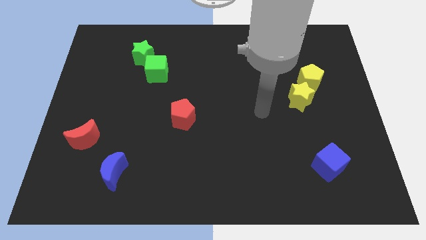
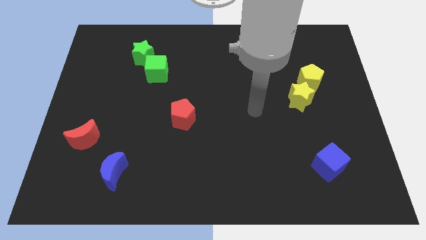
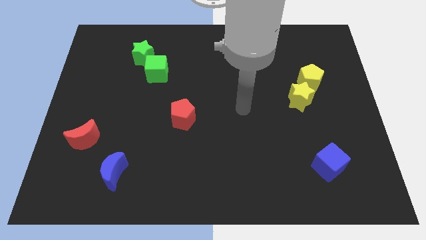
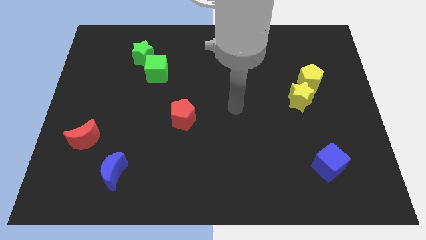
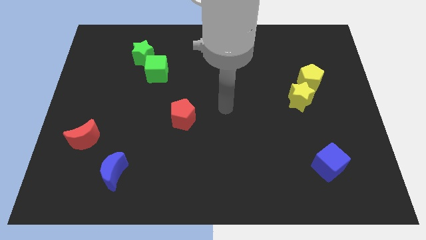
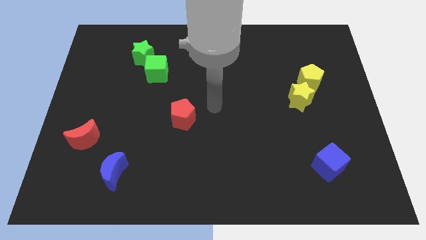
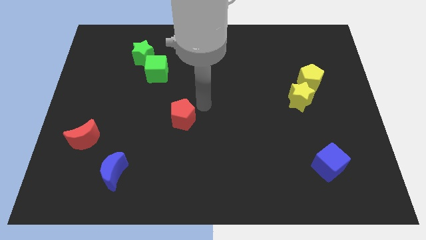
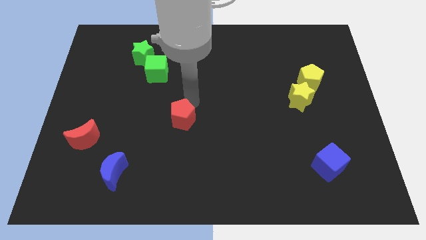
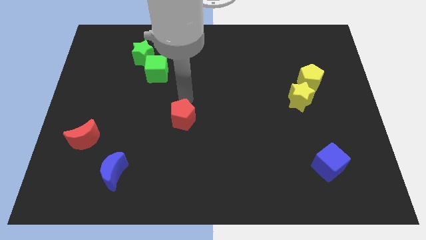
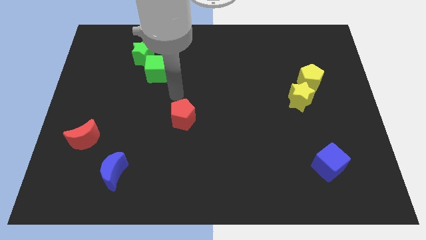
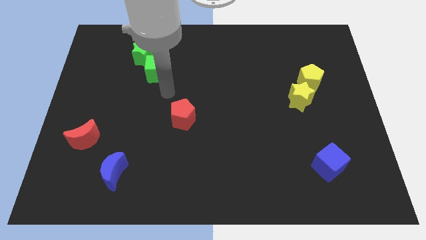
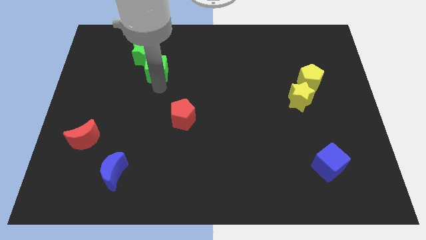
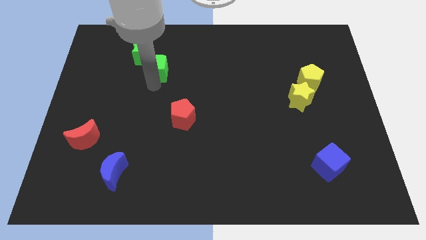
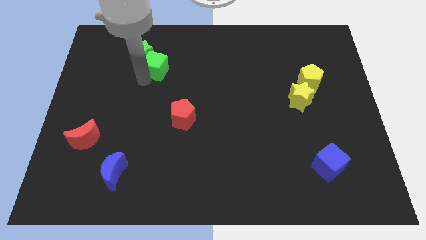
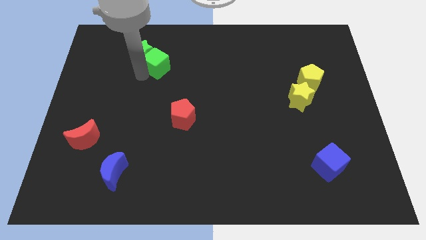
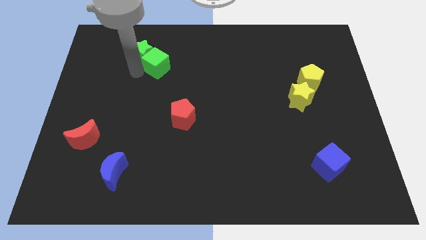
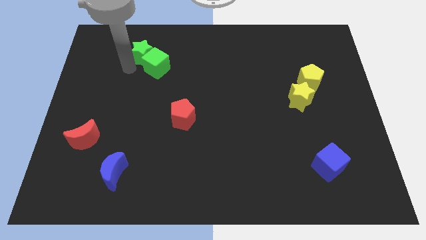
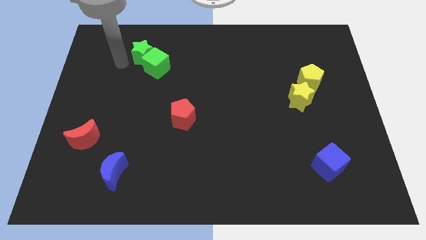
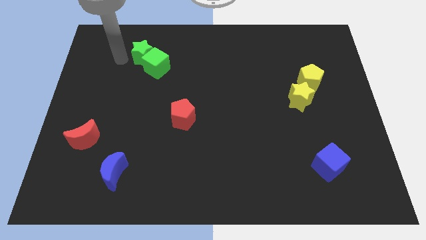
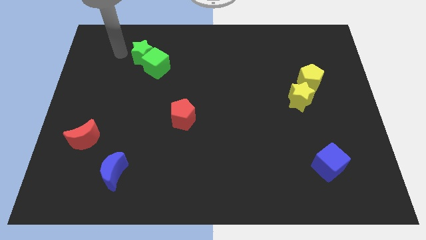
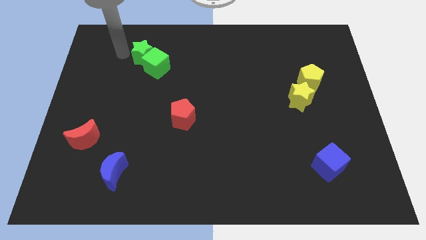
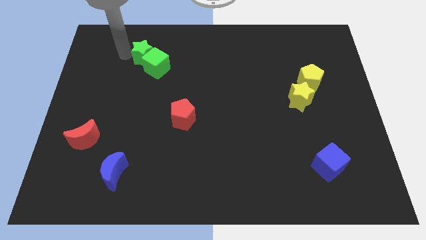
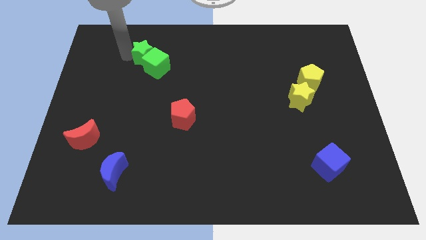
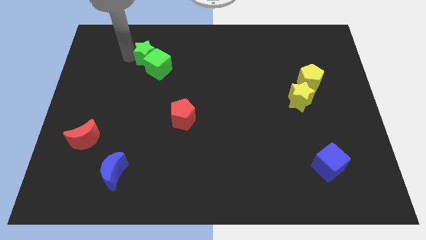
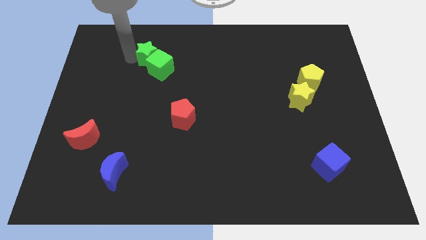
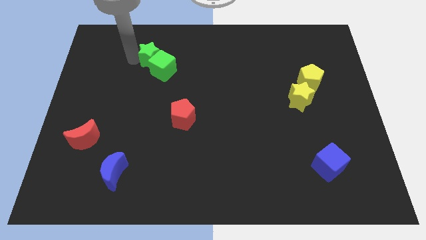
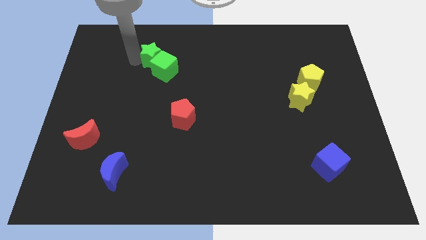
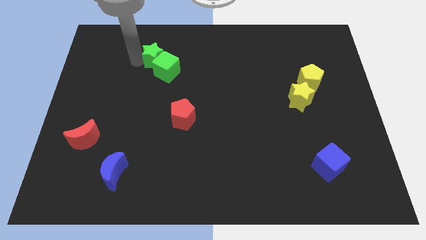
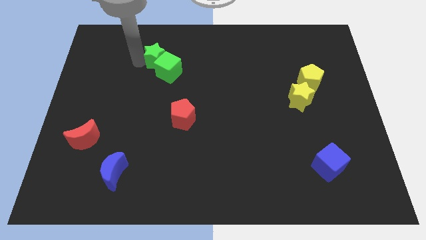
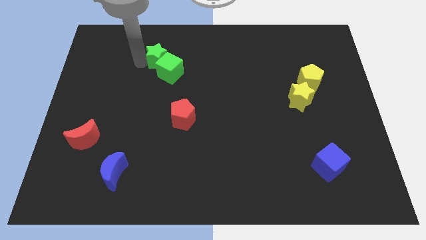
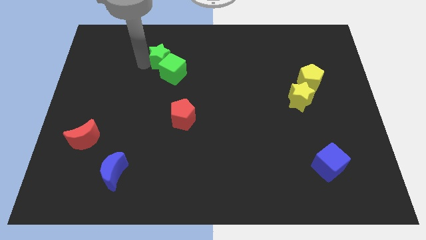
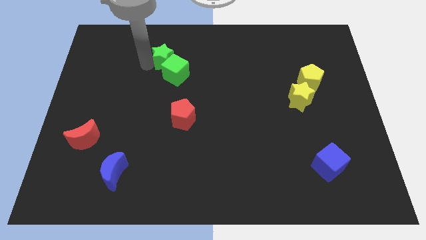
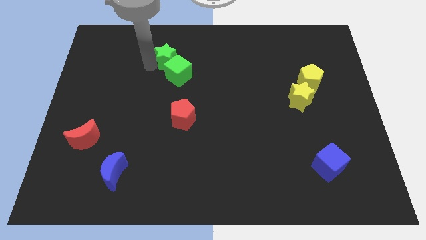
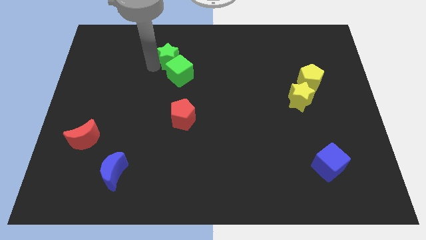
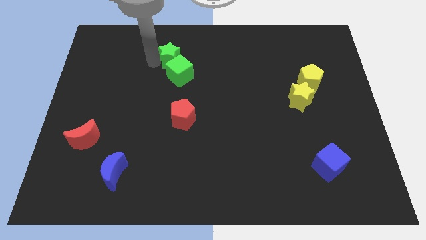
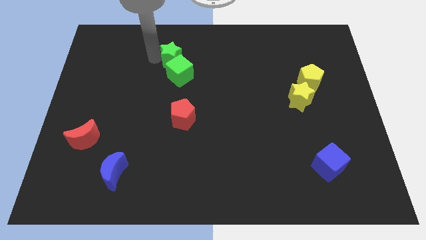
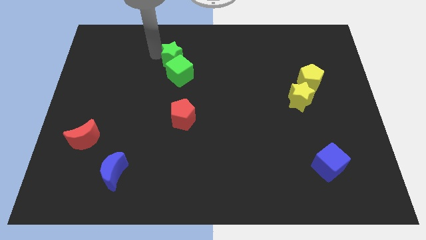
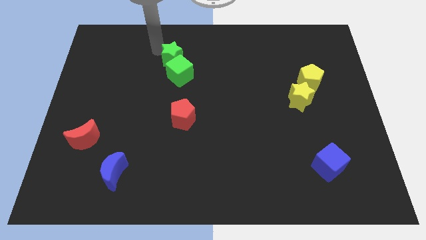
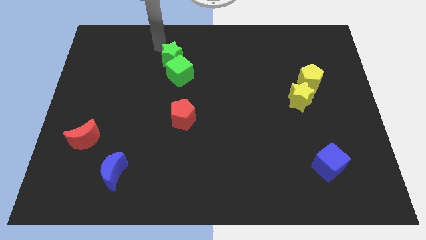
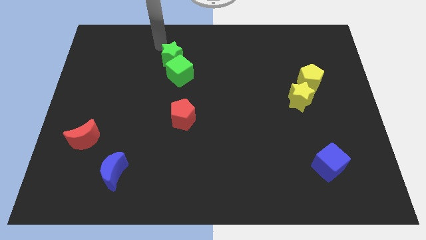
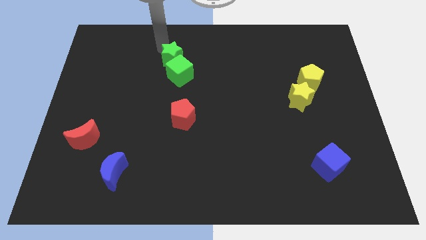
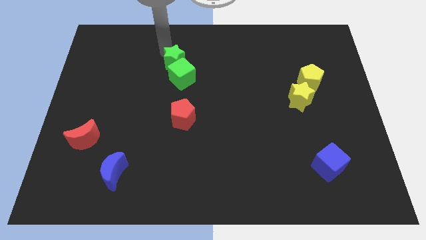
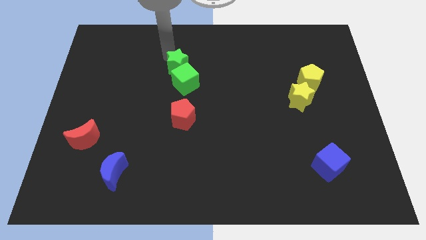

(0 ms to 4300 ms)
slightly slide the green star diagonally down and to the right

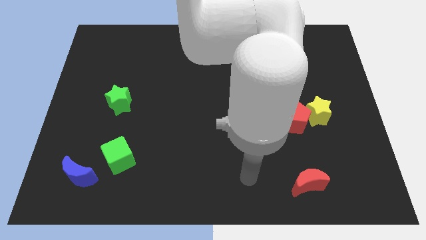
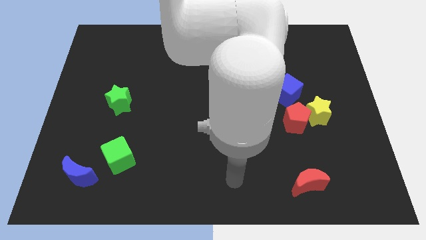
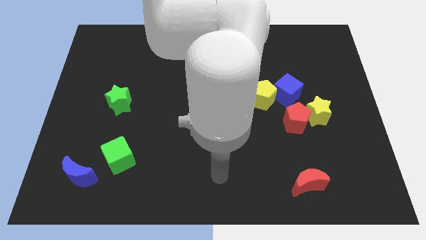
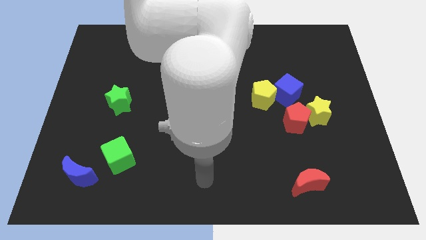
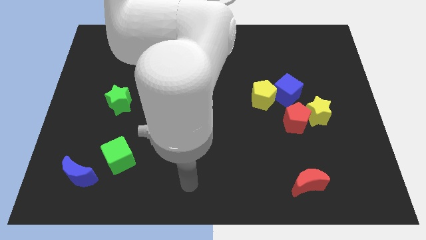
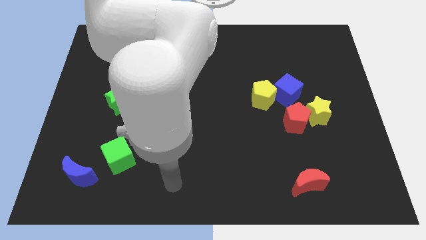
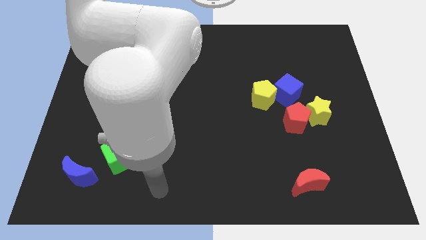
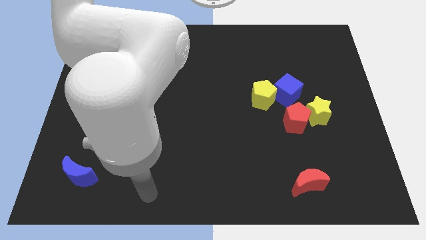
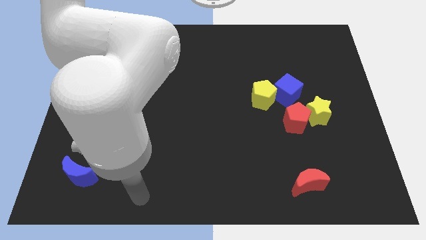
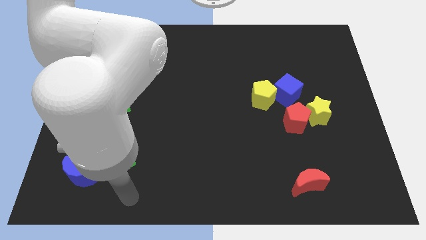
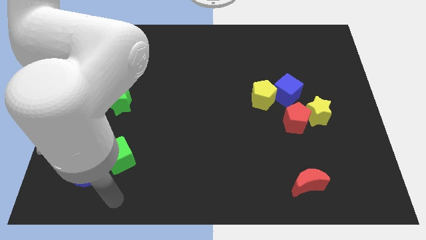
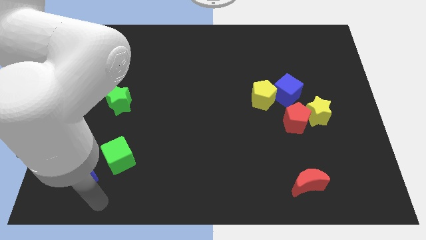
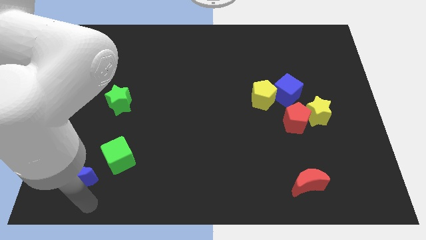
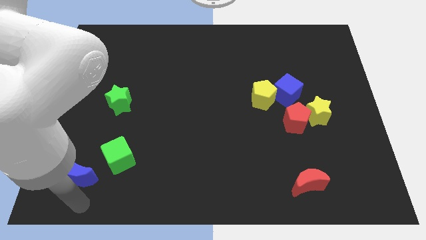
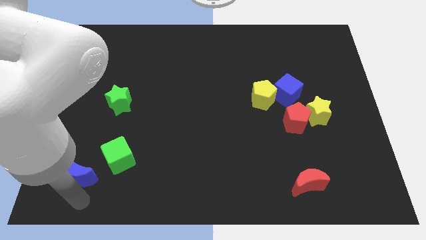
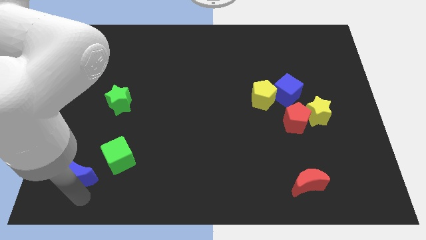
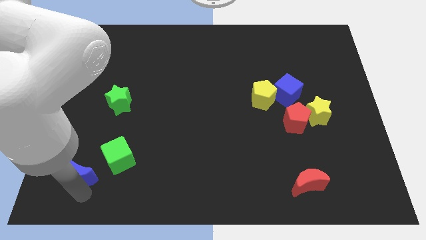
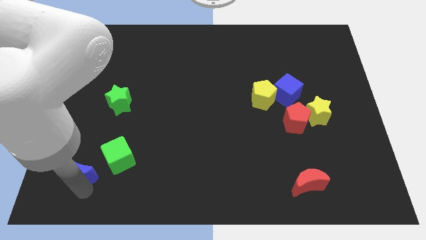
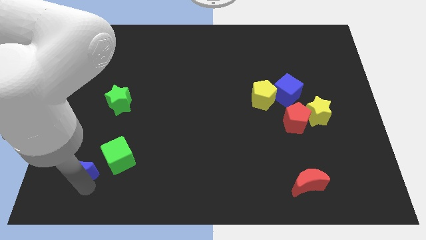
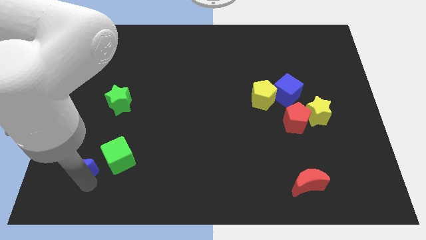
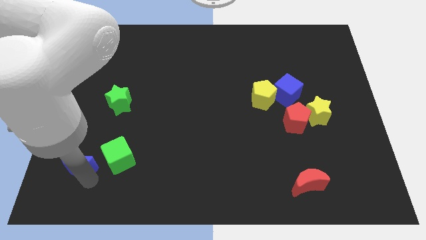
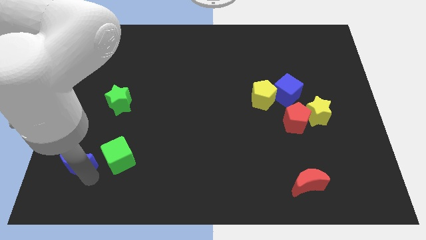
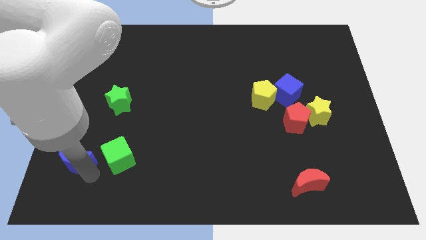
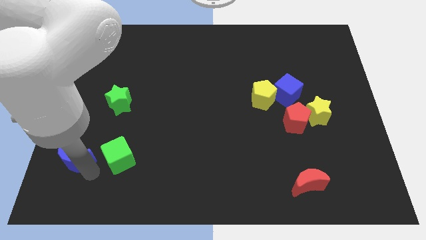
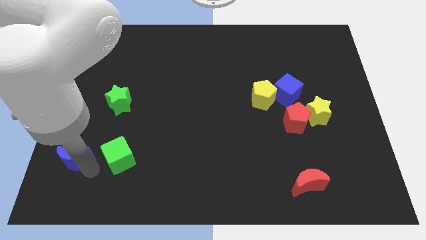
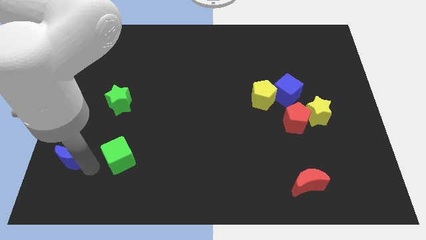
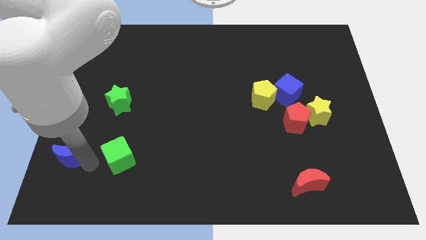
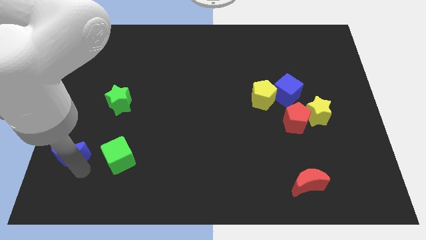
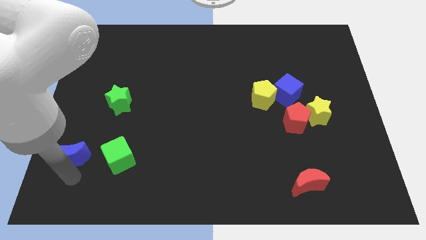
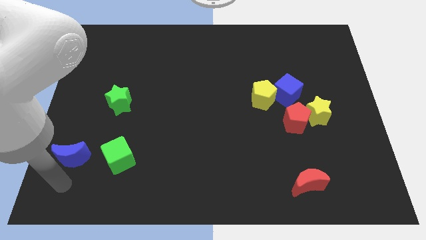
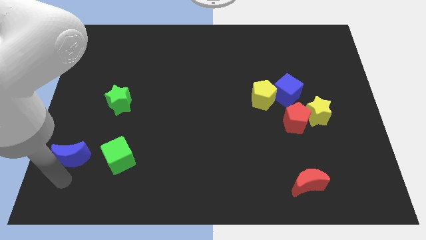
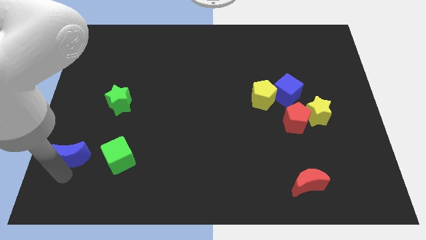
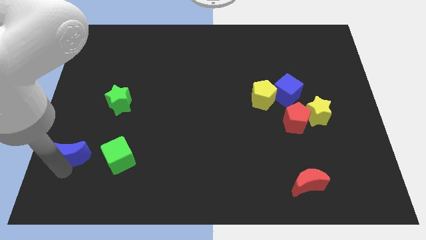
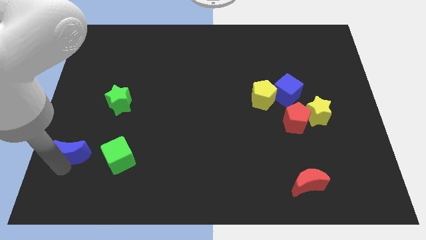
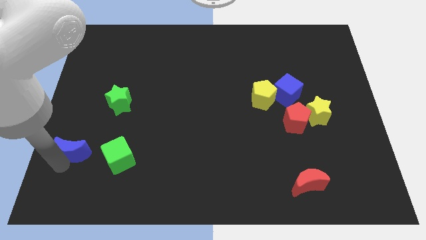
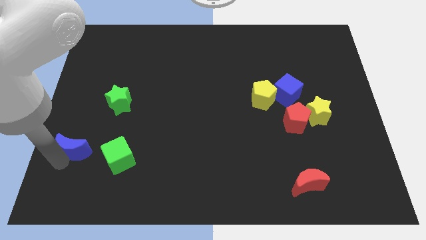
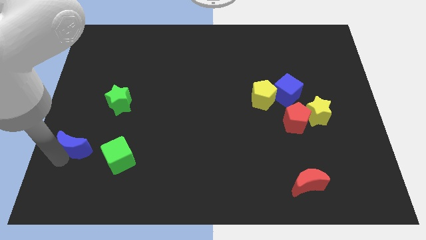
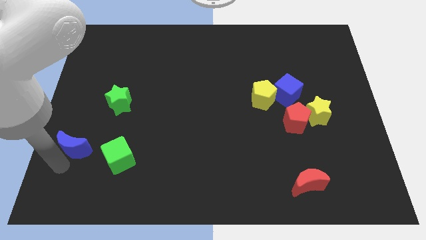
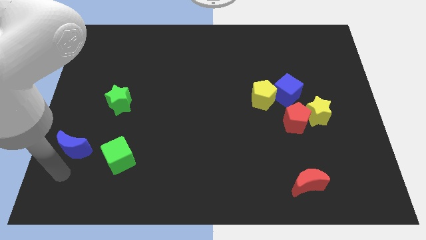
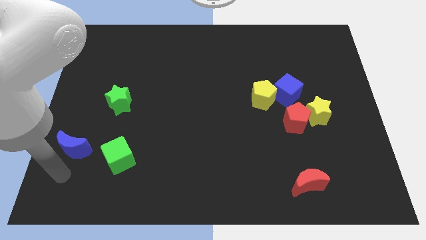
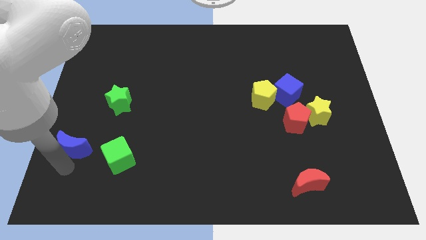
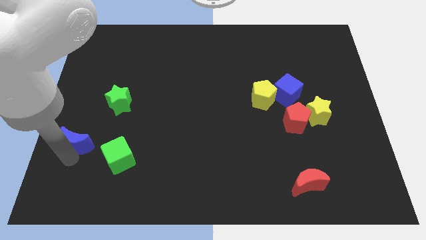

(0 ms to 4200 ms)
slide the blue moon upwards a bit
